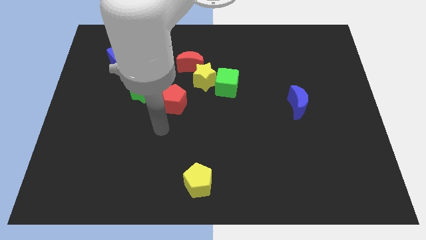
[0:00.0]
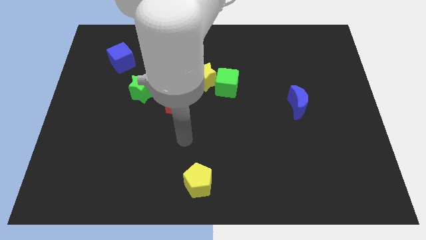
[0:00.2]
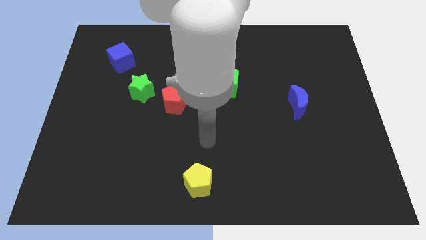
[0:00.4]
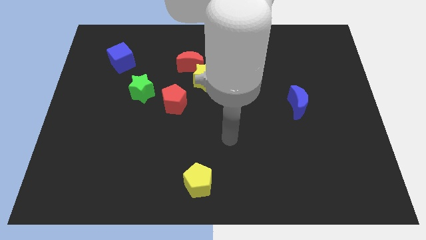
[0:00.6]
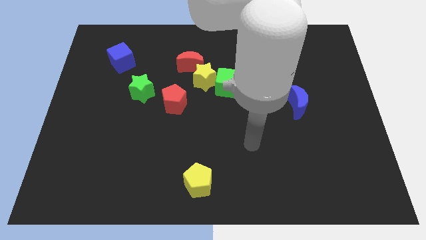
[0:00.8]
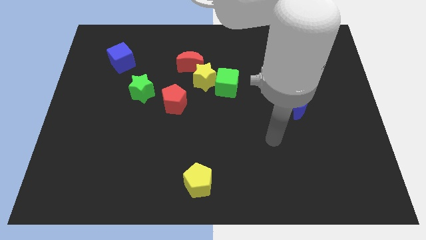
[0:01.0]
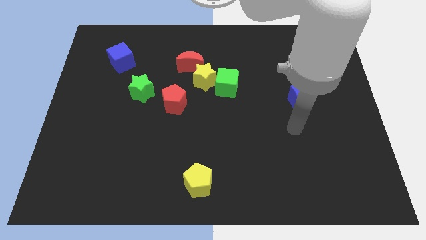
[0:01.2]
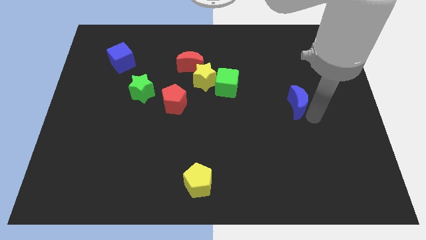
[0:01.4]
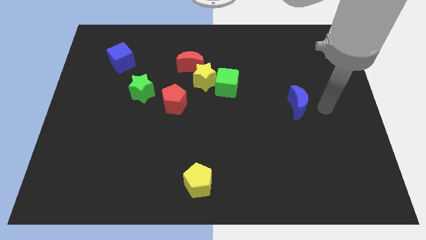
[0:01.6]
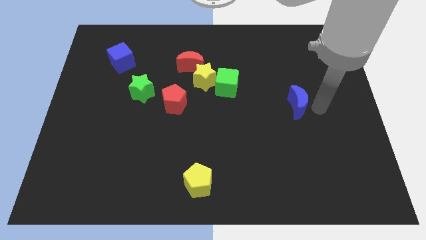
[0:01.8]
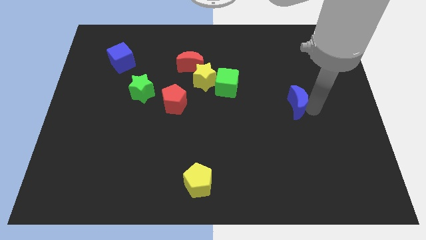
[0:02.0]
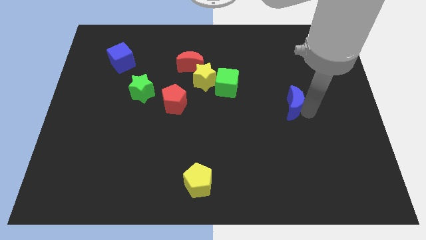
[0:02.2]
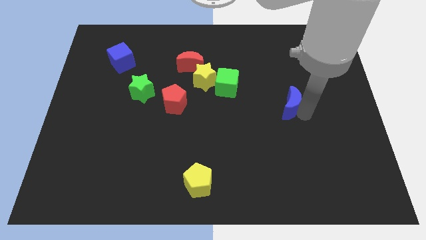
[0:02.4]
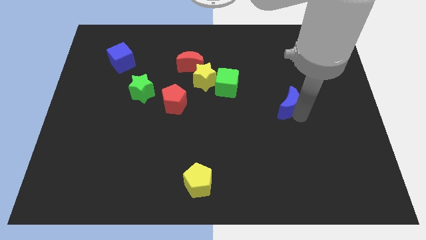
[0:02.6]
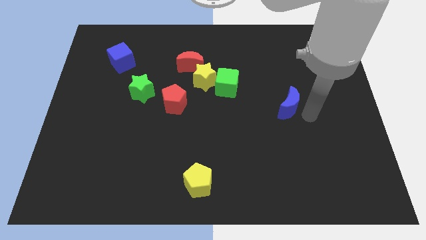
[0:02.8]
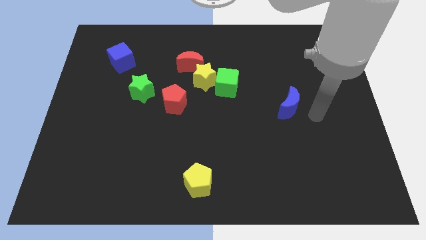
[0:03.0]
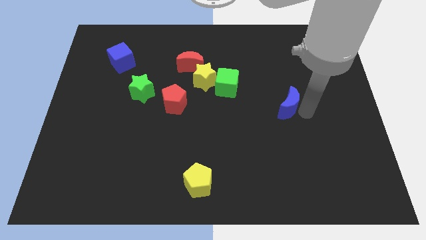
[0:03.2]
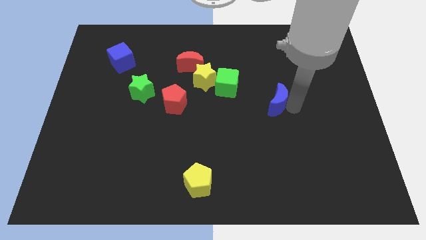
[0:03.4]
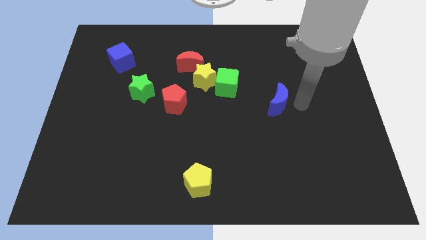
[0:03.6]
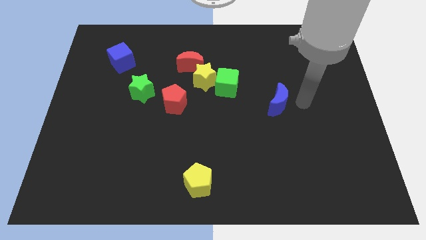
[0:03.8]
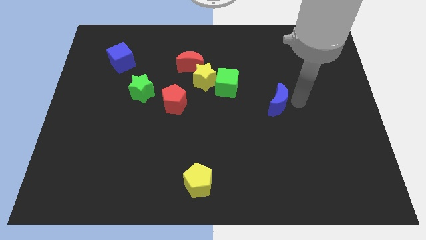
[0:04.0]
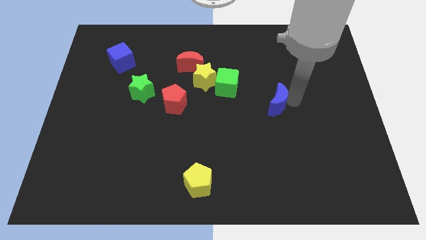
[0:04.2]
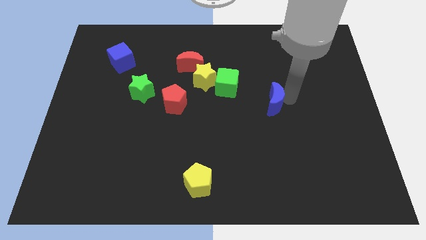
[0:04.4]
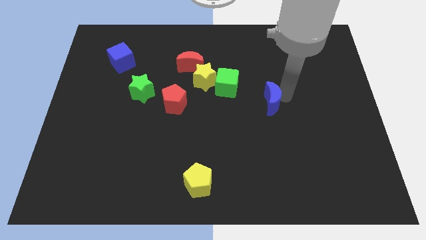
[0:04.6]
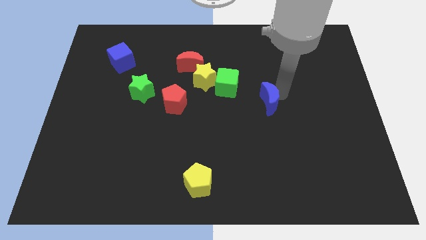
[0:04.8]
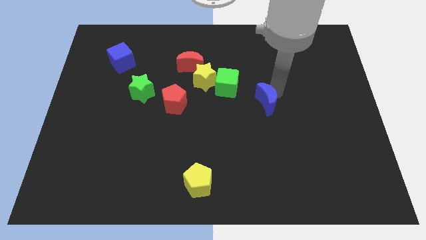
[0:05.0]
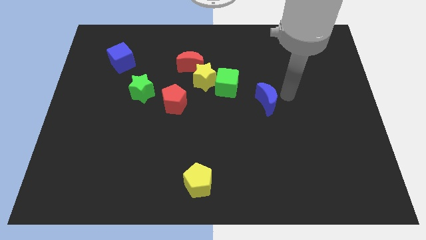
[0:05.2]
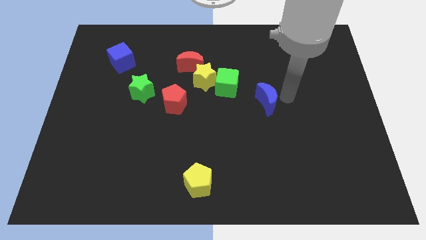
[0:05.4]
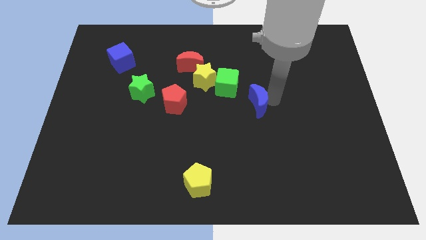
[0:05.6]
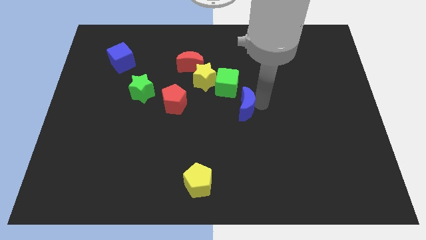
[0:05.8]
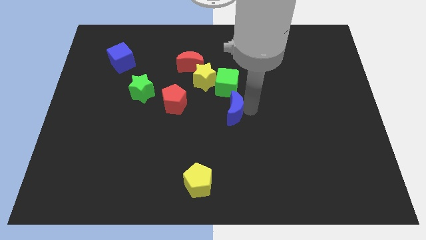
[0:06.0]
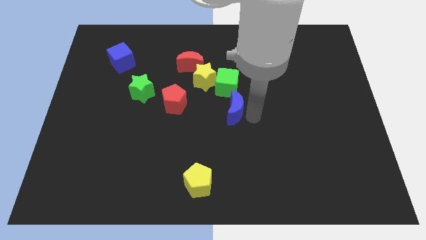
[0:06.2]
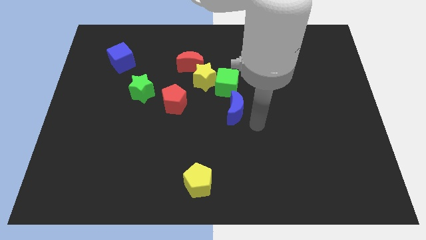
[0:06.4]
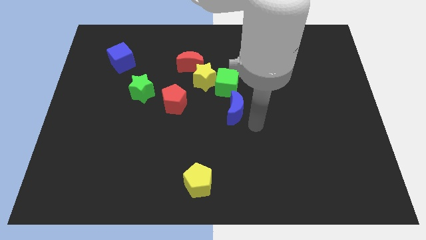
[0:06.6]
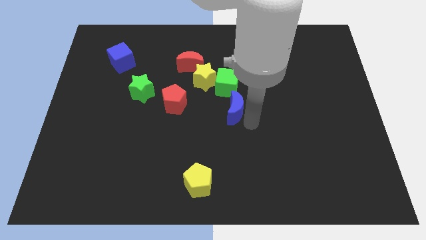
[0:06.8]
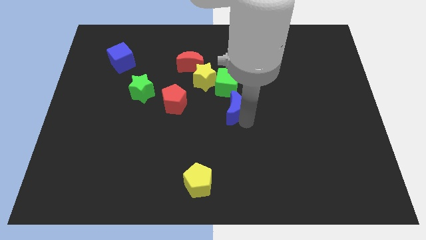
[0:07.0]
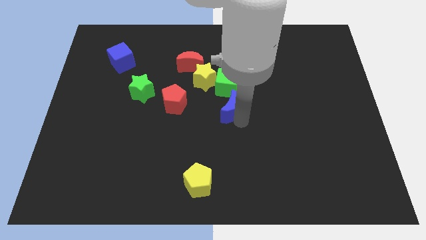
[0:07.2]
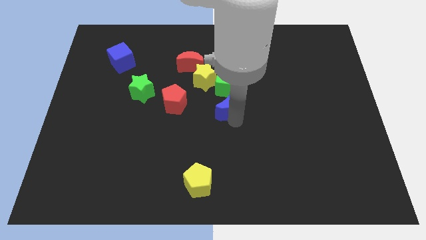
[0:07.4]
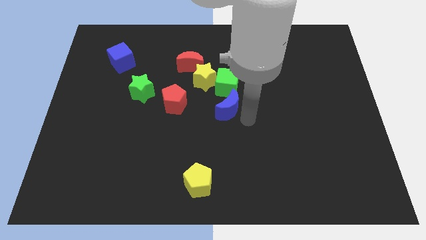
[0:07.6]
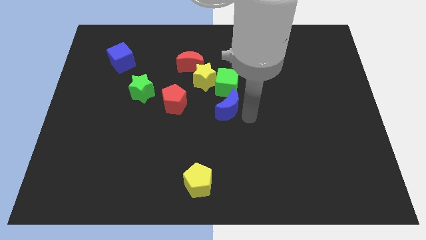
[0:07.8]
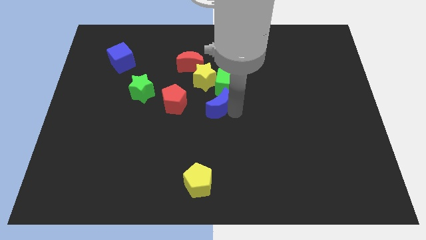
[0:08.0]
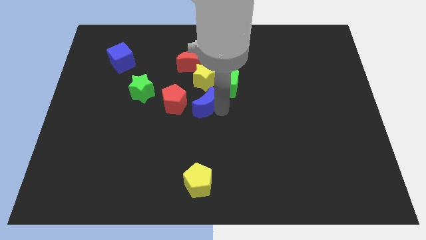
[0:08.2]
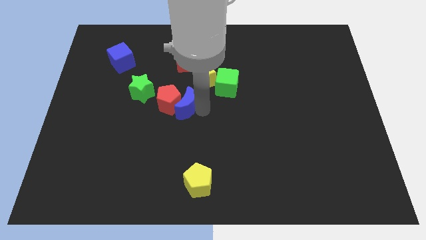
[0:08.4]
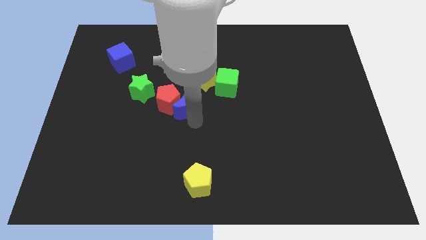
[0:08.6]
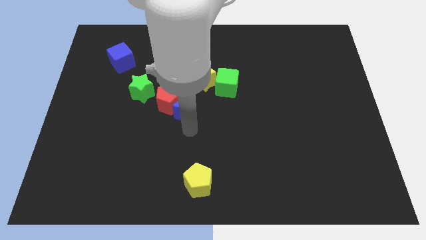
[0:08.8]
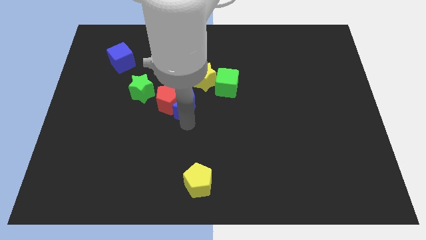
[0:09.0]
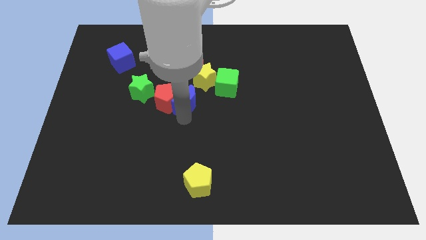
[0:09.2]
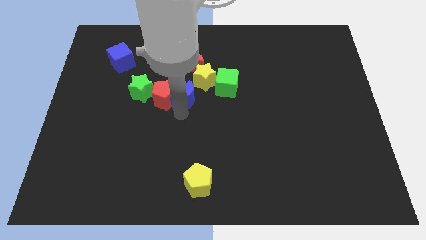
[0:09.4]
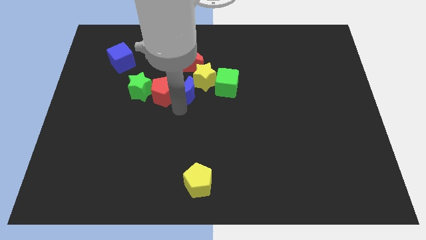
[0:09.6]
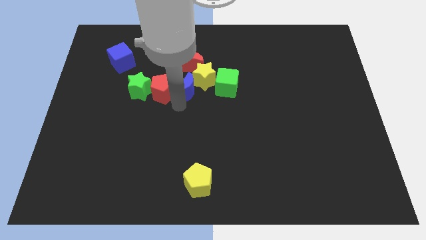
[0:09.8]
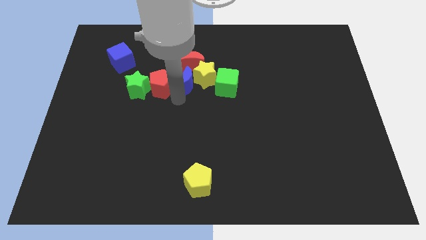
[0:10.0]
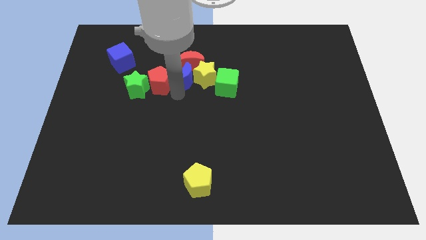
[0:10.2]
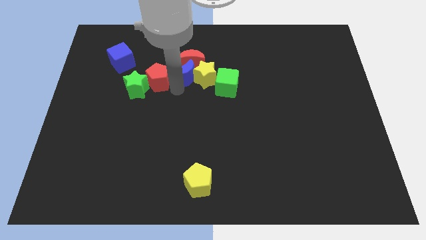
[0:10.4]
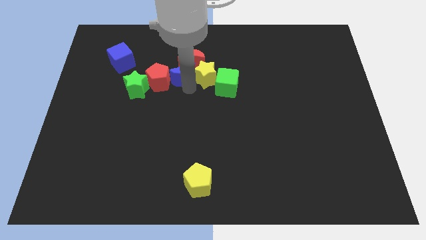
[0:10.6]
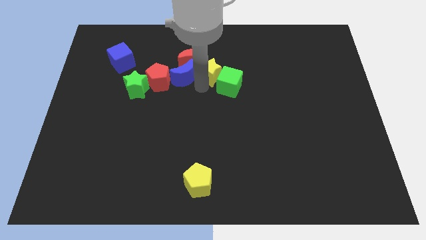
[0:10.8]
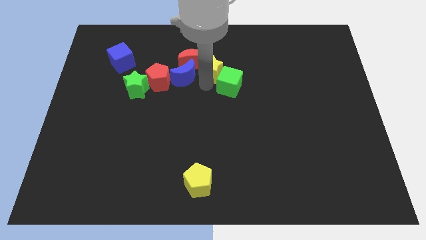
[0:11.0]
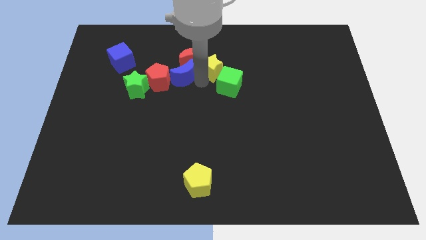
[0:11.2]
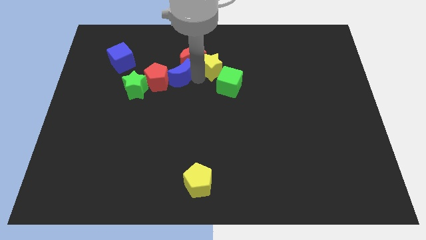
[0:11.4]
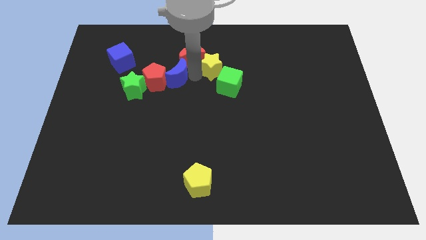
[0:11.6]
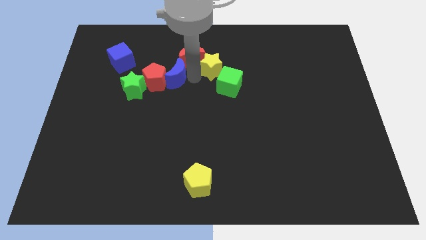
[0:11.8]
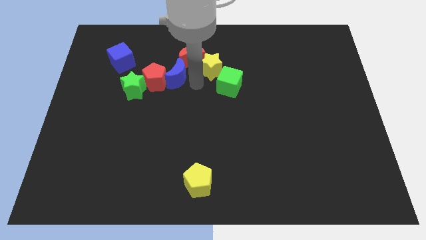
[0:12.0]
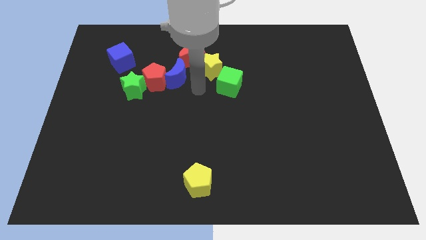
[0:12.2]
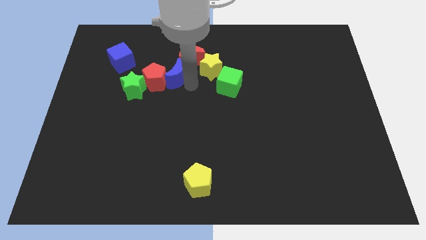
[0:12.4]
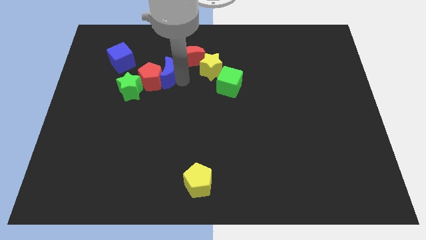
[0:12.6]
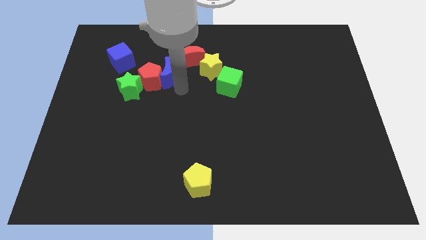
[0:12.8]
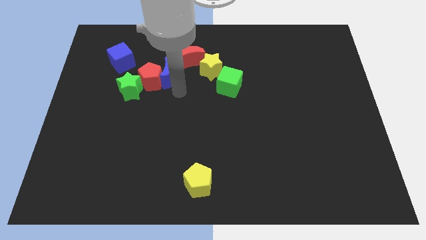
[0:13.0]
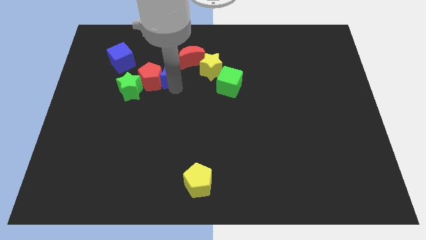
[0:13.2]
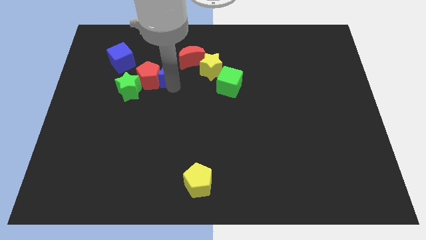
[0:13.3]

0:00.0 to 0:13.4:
put the blue moon to the right side of the blue cube

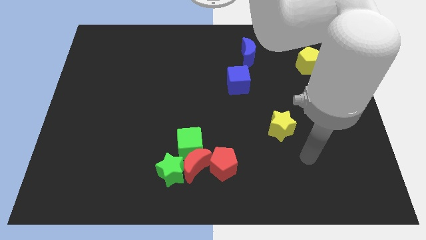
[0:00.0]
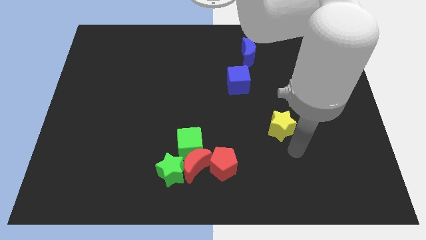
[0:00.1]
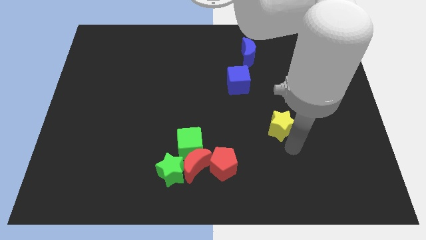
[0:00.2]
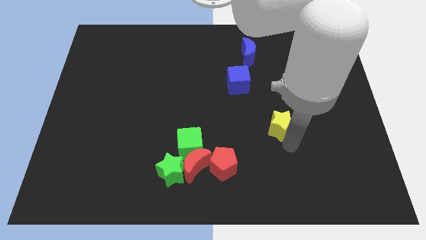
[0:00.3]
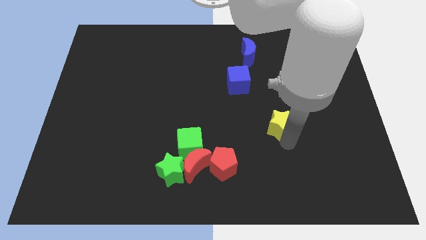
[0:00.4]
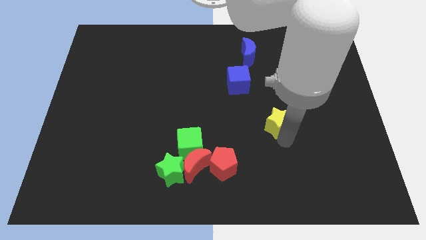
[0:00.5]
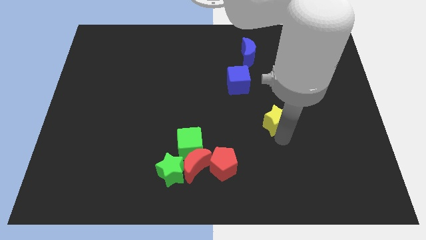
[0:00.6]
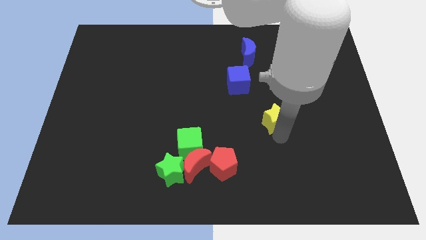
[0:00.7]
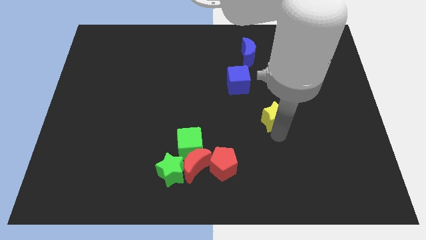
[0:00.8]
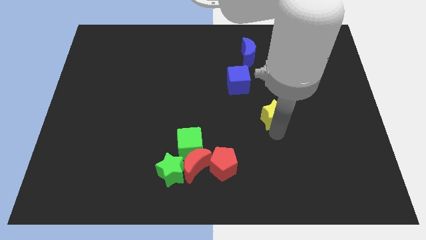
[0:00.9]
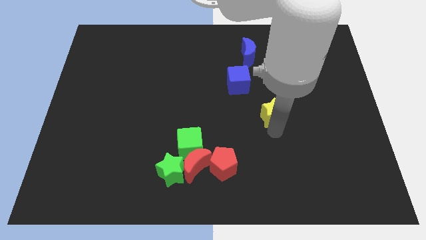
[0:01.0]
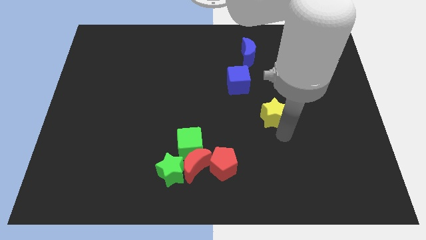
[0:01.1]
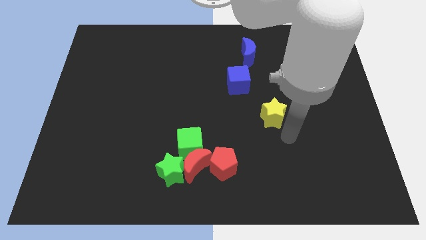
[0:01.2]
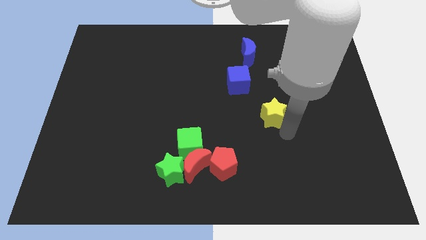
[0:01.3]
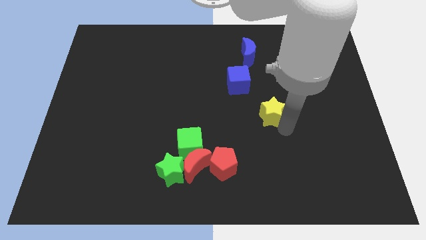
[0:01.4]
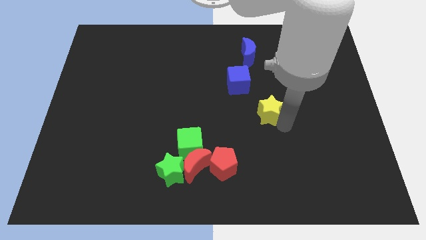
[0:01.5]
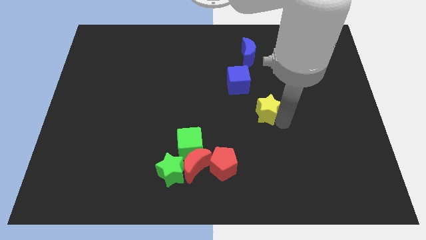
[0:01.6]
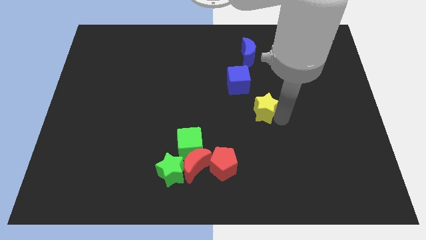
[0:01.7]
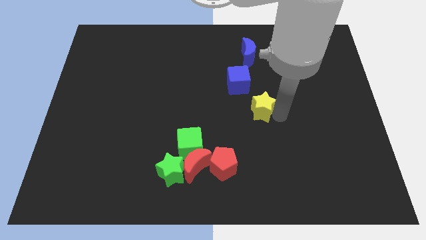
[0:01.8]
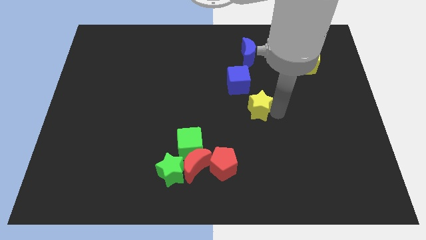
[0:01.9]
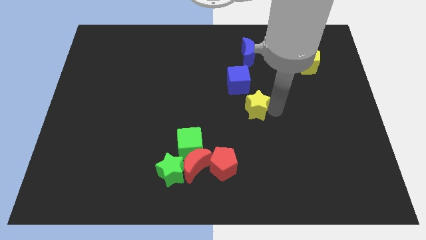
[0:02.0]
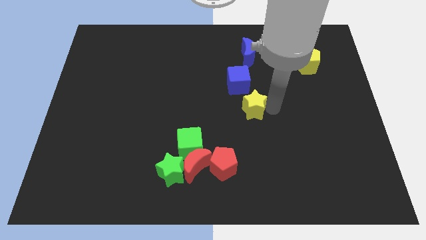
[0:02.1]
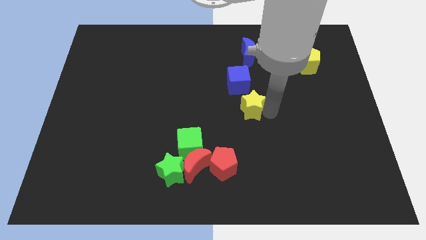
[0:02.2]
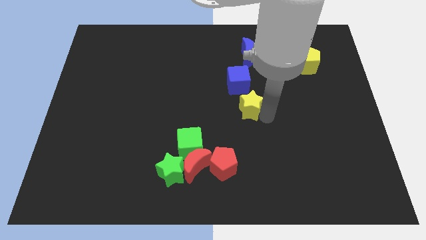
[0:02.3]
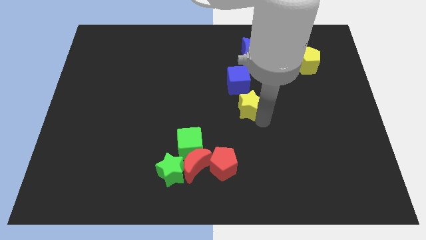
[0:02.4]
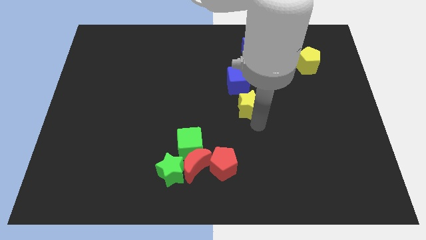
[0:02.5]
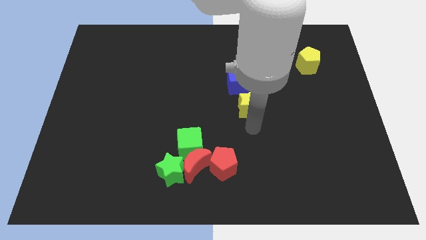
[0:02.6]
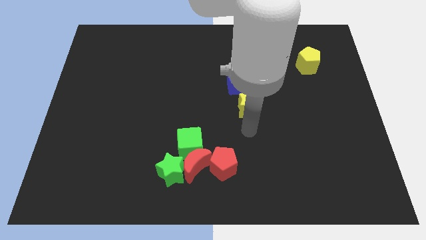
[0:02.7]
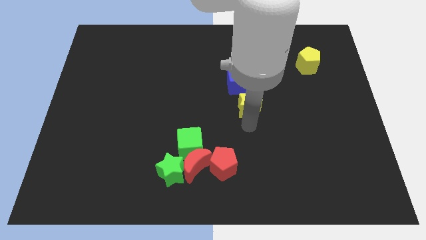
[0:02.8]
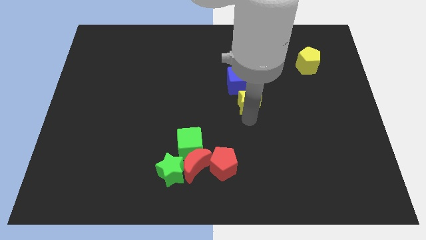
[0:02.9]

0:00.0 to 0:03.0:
slide the yellow star to the bottom of the blue moon
